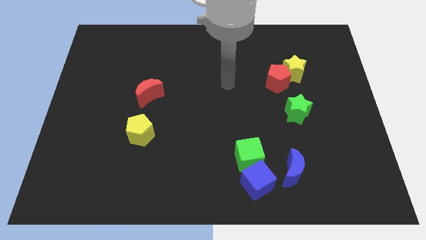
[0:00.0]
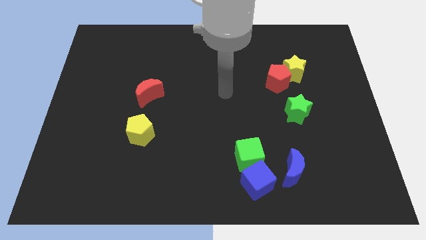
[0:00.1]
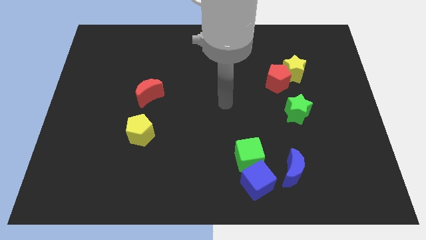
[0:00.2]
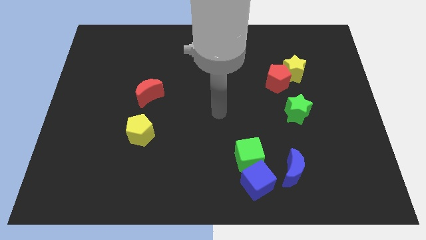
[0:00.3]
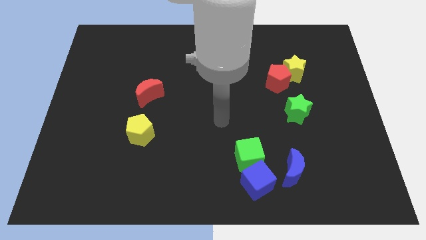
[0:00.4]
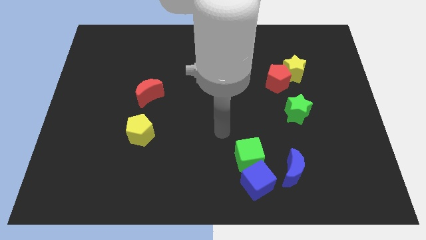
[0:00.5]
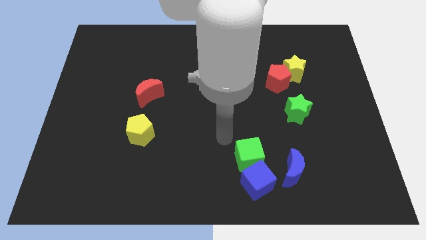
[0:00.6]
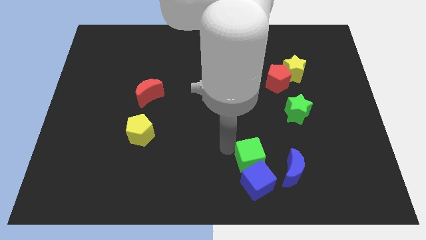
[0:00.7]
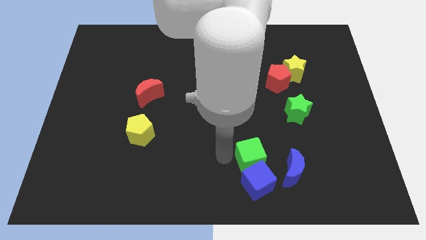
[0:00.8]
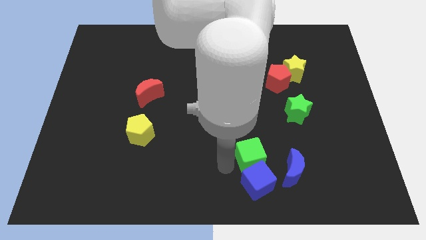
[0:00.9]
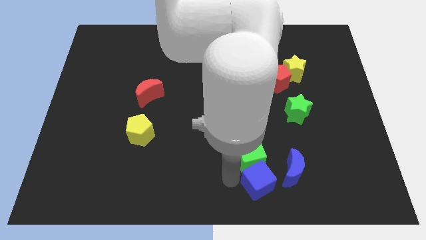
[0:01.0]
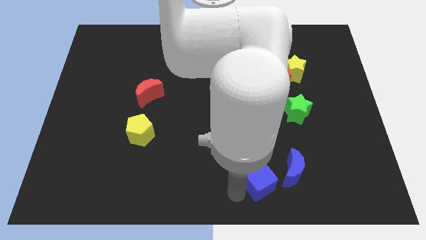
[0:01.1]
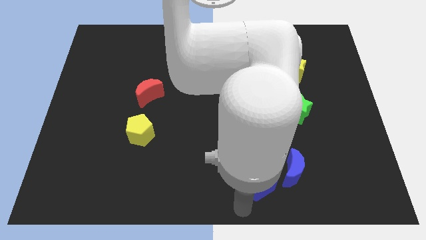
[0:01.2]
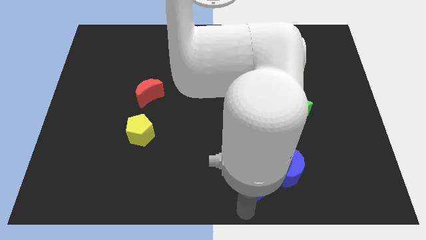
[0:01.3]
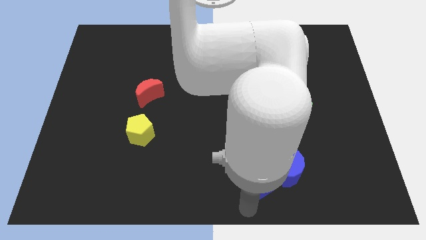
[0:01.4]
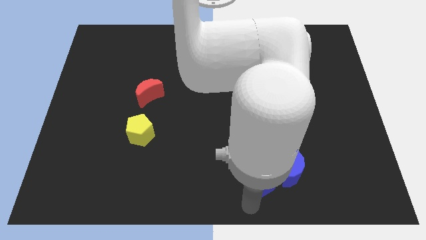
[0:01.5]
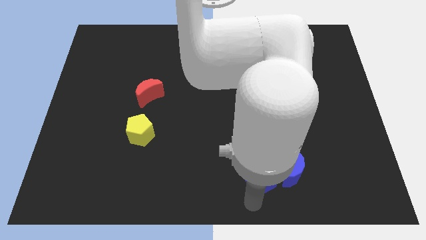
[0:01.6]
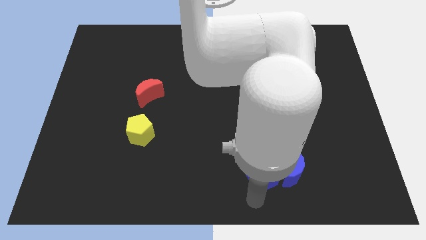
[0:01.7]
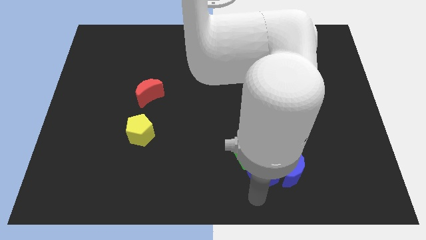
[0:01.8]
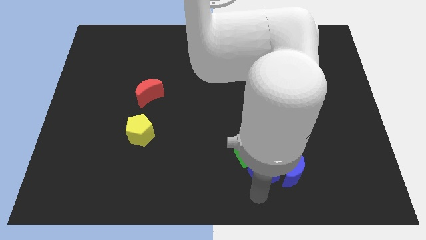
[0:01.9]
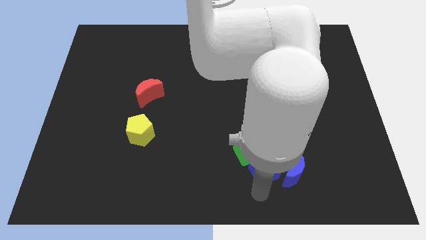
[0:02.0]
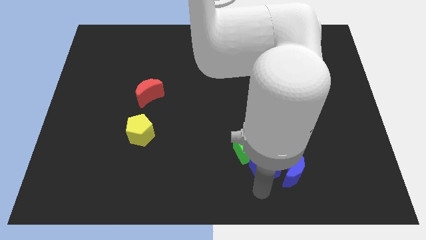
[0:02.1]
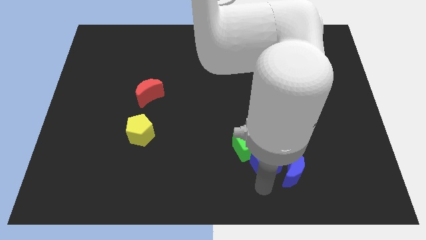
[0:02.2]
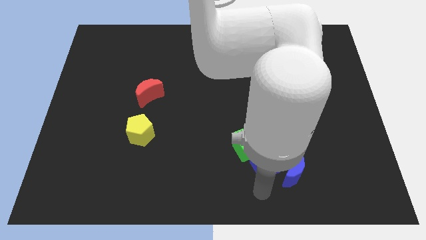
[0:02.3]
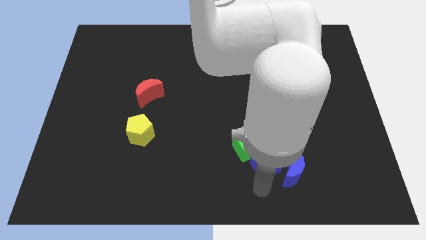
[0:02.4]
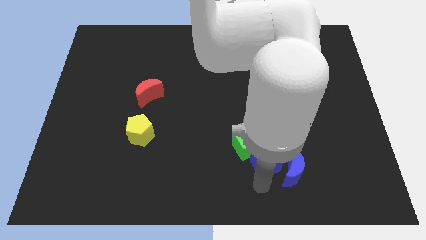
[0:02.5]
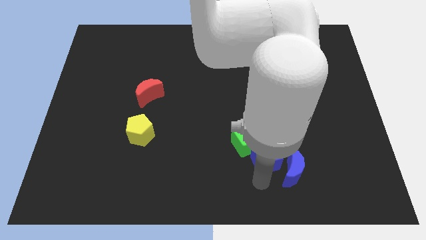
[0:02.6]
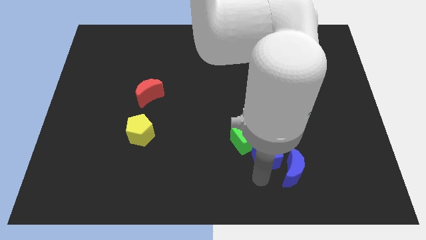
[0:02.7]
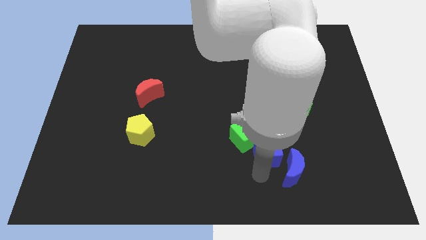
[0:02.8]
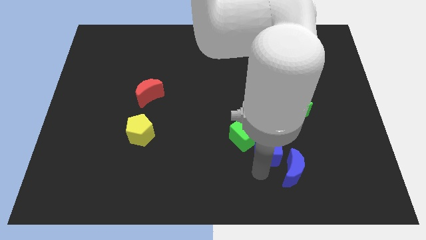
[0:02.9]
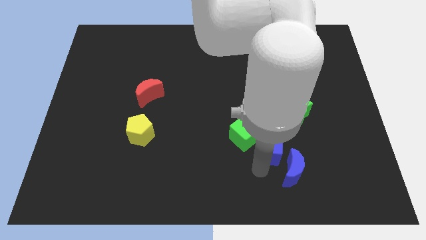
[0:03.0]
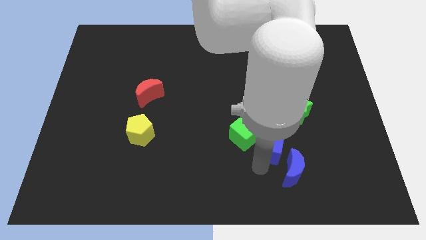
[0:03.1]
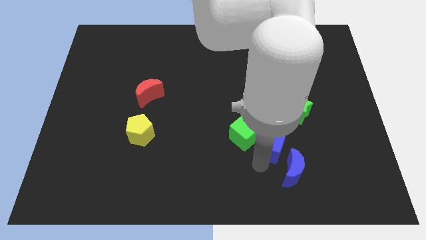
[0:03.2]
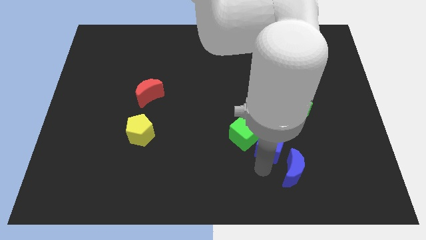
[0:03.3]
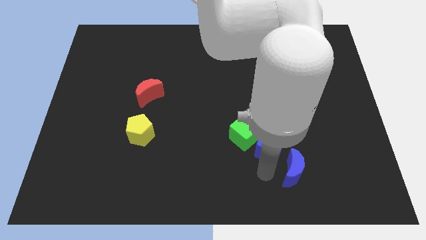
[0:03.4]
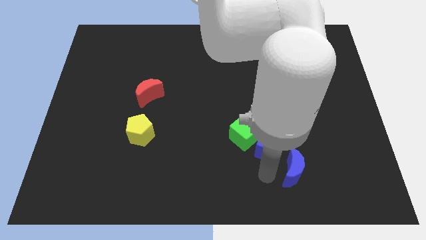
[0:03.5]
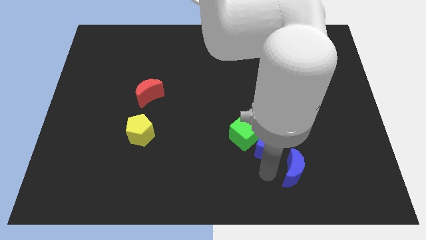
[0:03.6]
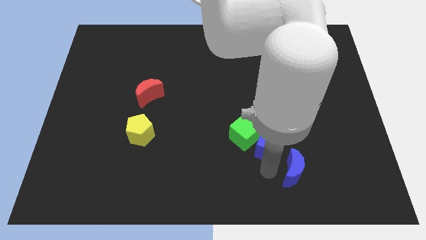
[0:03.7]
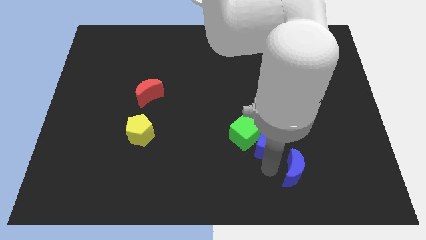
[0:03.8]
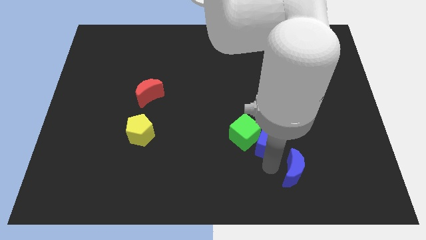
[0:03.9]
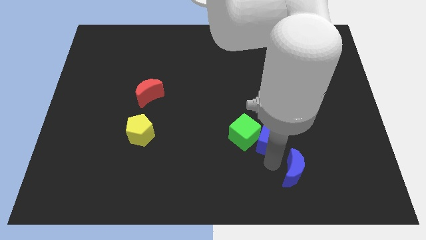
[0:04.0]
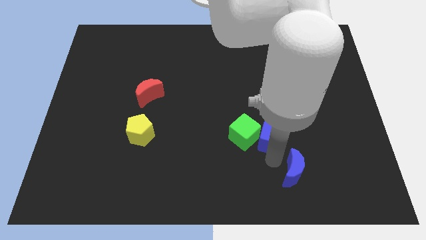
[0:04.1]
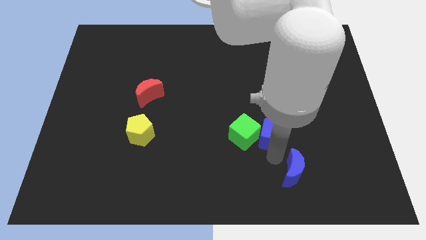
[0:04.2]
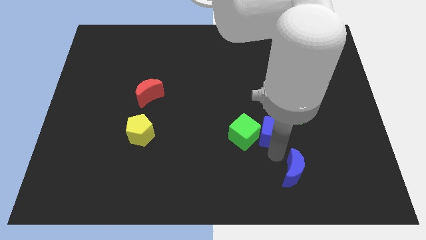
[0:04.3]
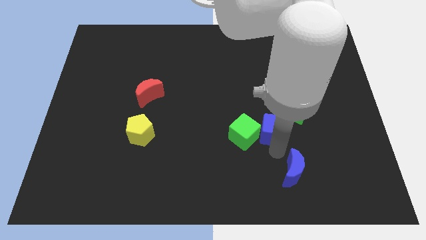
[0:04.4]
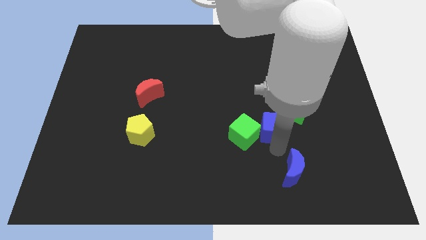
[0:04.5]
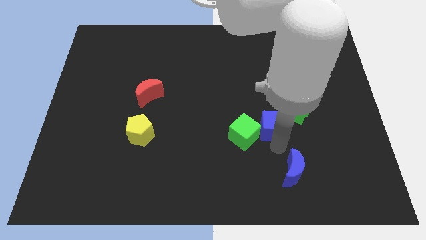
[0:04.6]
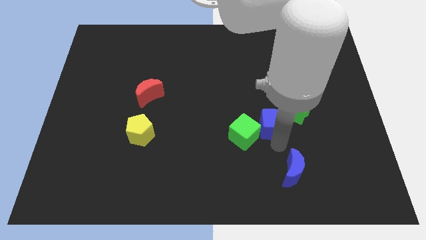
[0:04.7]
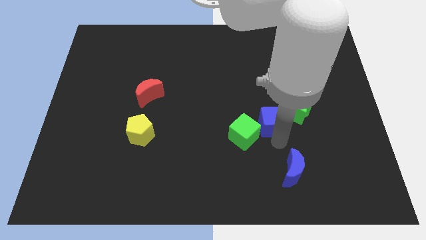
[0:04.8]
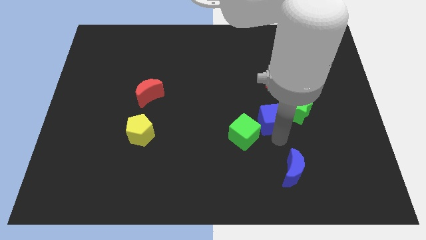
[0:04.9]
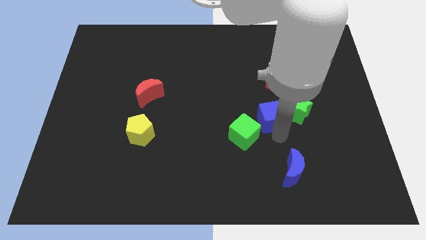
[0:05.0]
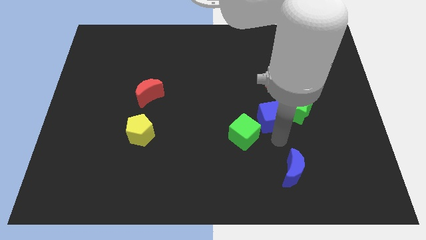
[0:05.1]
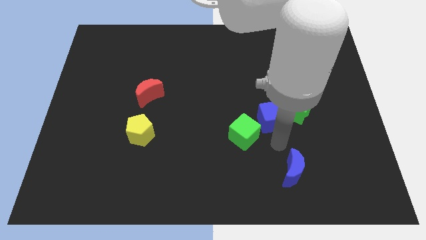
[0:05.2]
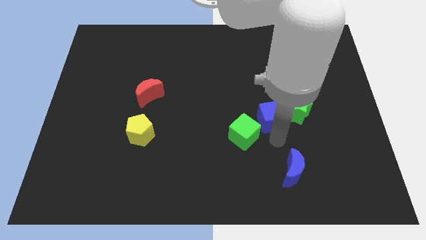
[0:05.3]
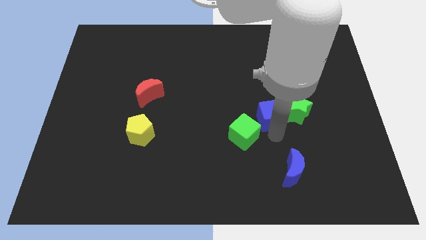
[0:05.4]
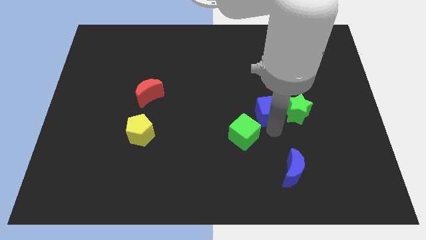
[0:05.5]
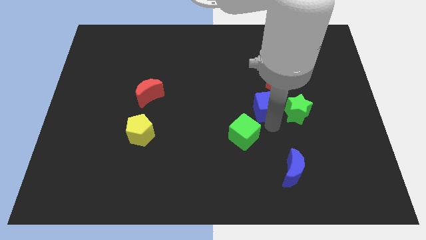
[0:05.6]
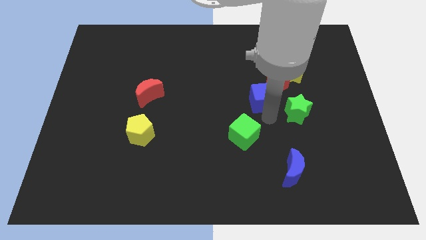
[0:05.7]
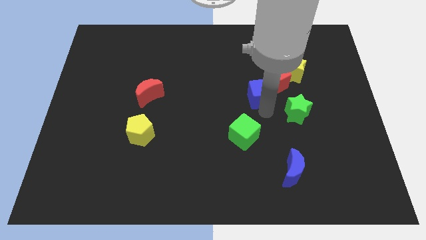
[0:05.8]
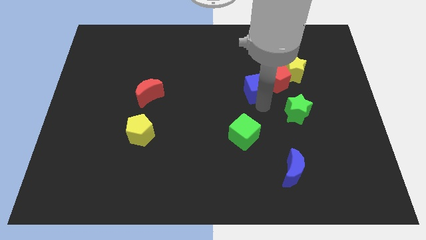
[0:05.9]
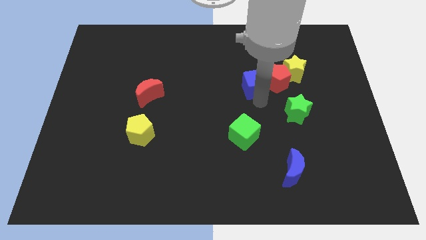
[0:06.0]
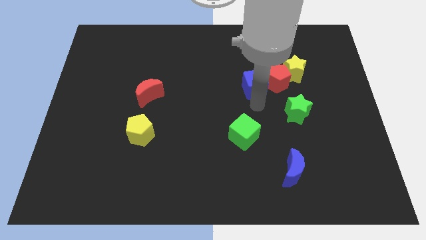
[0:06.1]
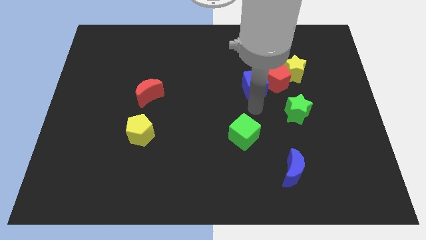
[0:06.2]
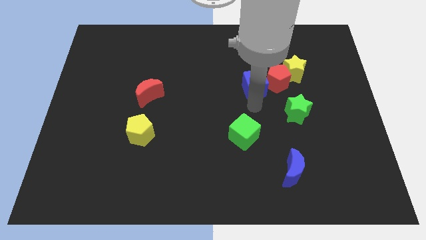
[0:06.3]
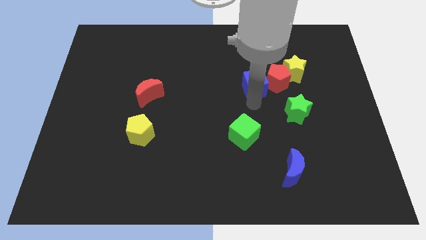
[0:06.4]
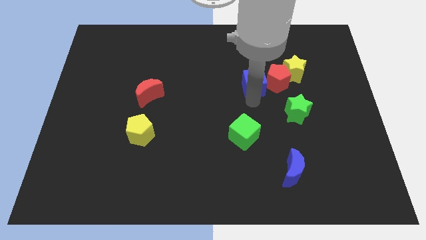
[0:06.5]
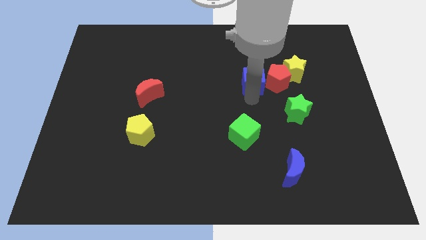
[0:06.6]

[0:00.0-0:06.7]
slide the blue cube diagonally up and to the left of the red pentagon

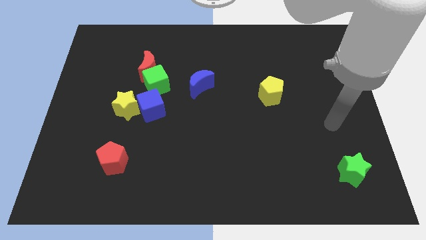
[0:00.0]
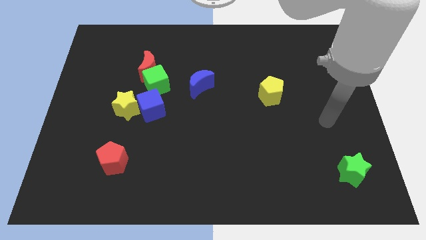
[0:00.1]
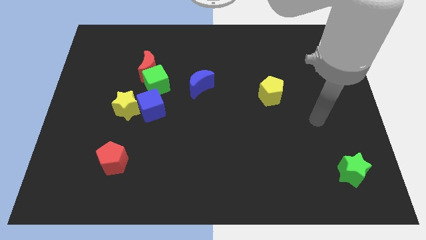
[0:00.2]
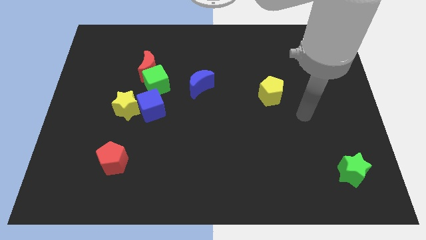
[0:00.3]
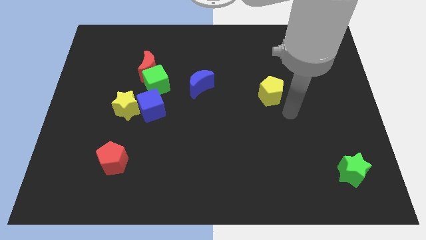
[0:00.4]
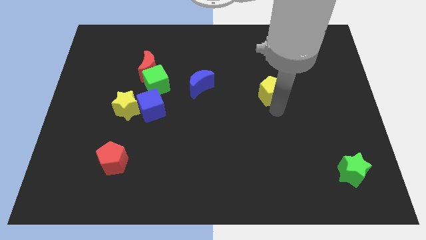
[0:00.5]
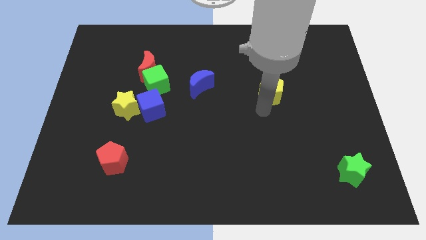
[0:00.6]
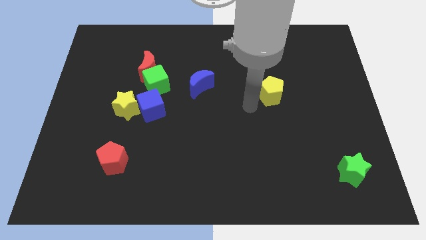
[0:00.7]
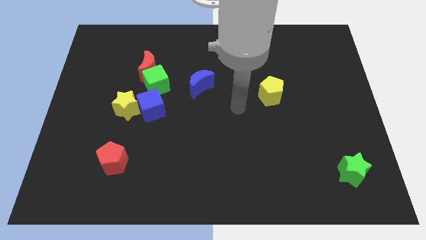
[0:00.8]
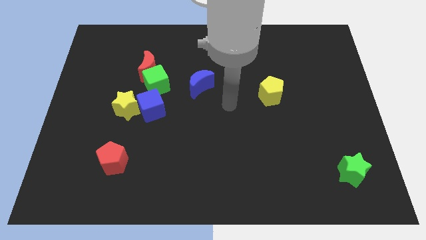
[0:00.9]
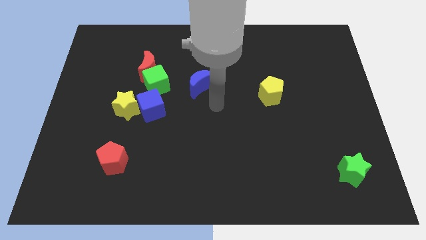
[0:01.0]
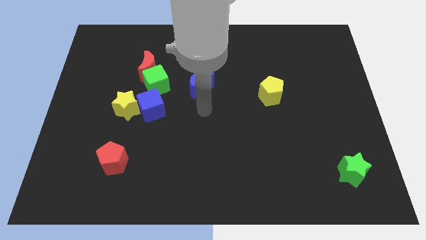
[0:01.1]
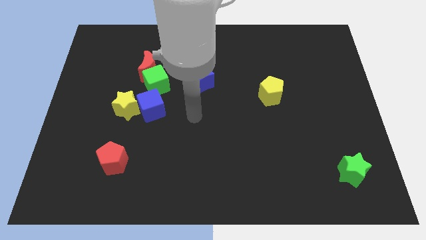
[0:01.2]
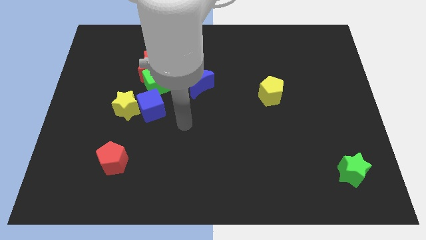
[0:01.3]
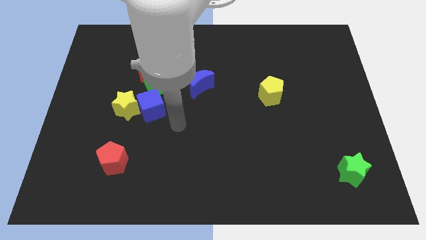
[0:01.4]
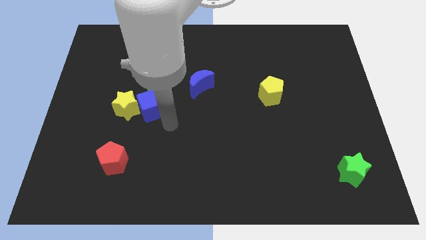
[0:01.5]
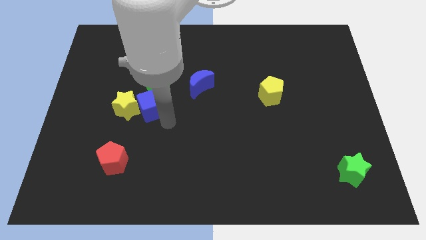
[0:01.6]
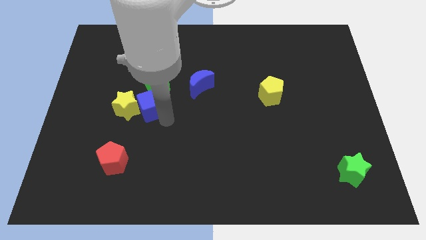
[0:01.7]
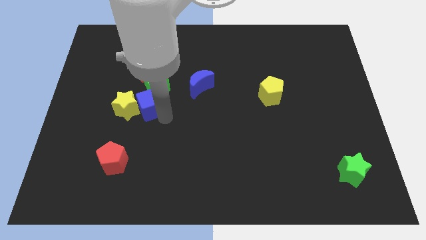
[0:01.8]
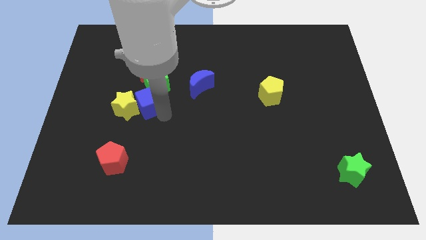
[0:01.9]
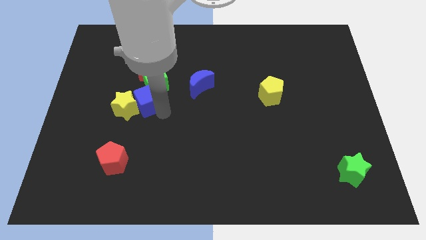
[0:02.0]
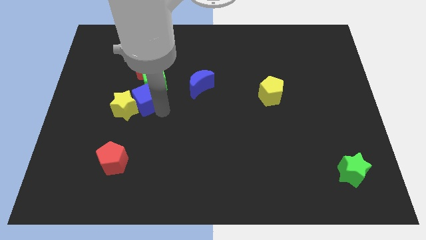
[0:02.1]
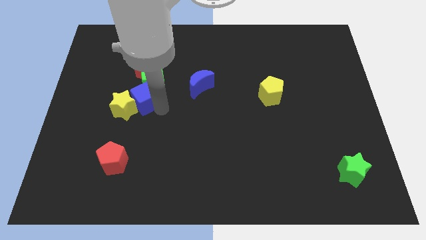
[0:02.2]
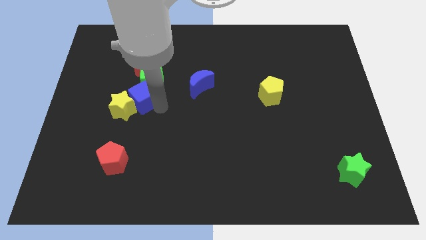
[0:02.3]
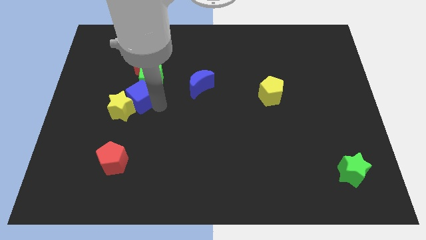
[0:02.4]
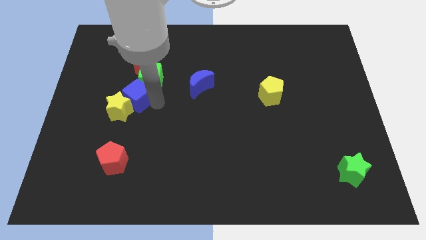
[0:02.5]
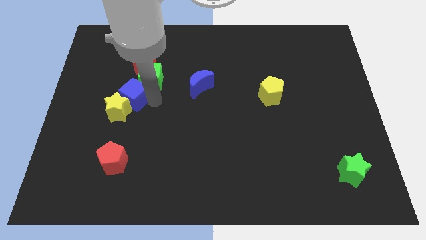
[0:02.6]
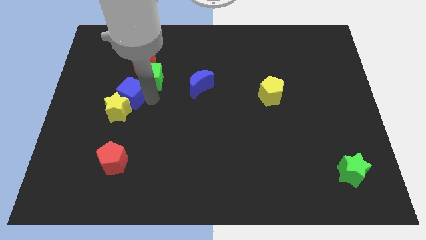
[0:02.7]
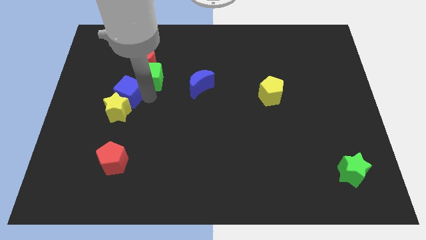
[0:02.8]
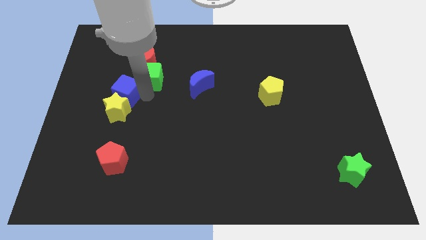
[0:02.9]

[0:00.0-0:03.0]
move the blue cube to the top left of the yellow star
